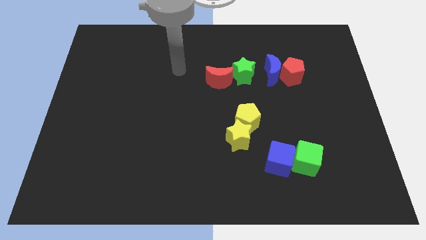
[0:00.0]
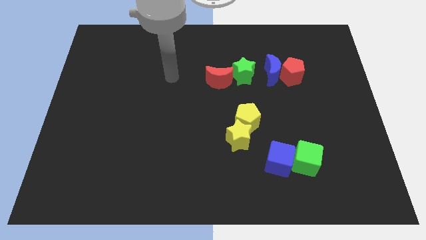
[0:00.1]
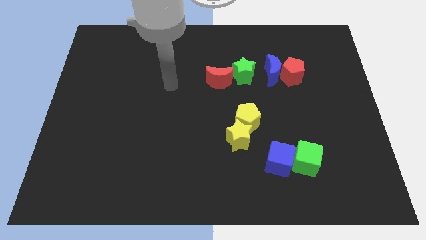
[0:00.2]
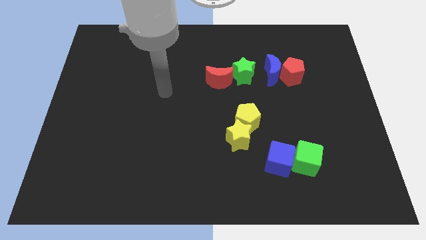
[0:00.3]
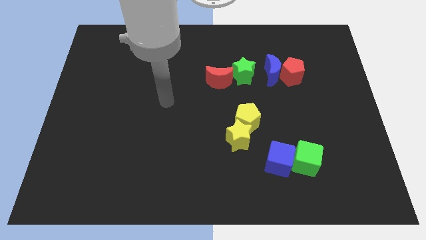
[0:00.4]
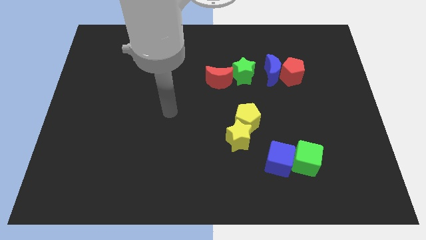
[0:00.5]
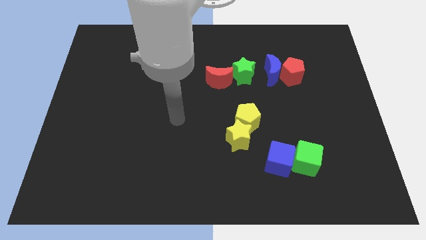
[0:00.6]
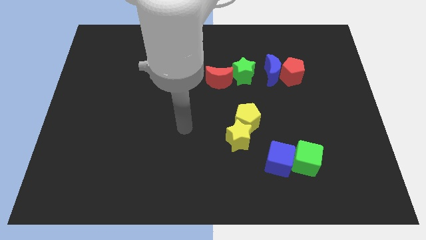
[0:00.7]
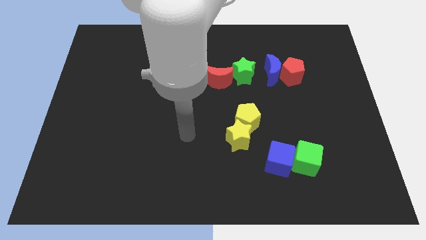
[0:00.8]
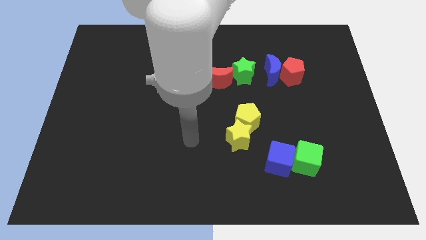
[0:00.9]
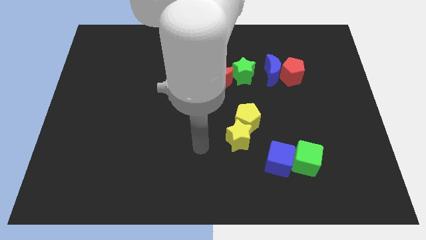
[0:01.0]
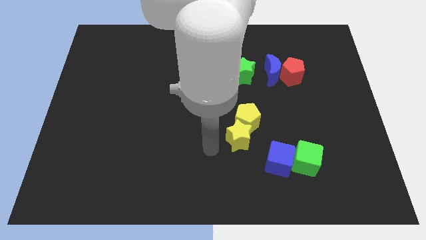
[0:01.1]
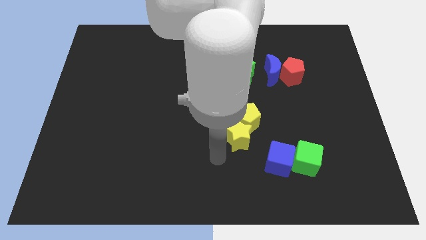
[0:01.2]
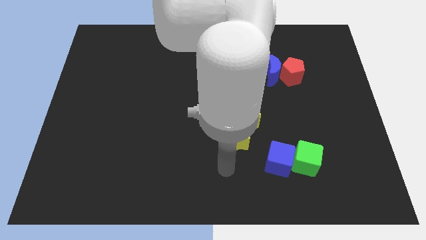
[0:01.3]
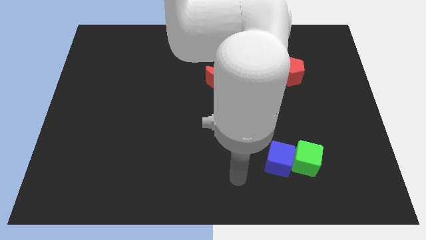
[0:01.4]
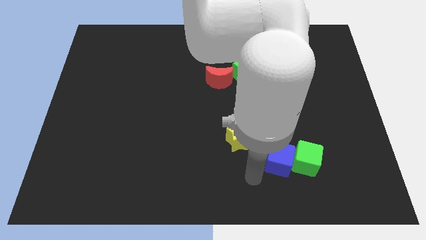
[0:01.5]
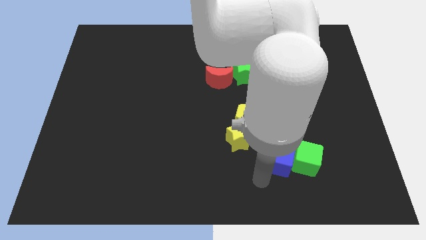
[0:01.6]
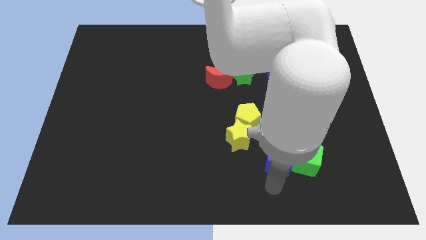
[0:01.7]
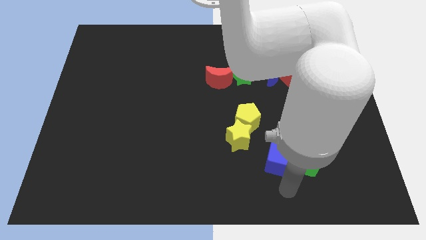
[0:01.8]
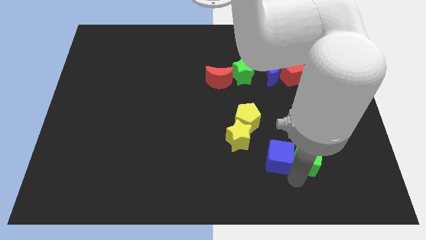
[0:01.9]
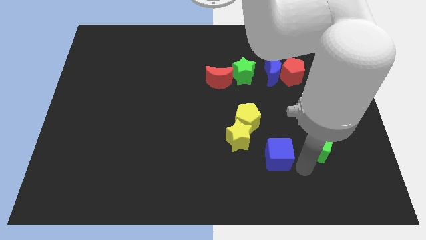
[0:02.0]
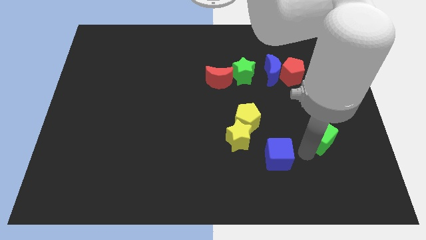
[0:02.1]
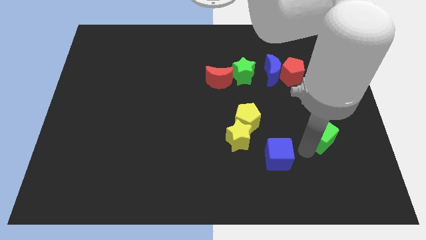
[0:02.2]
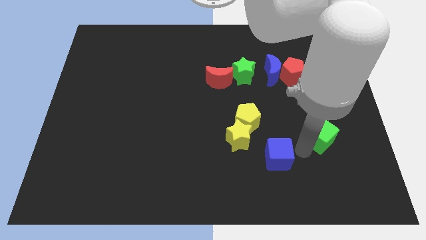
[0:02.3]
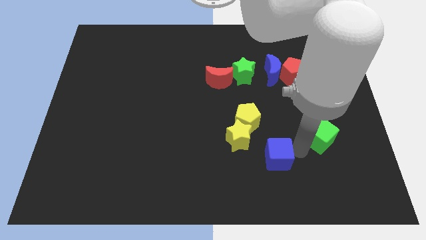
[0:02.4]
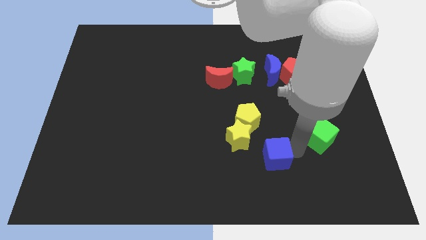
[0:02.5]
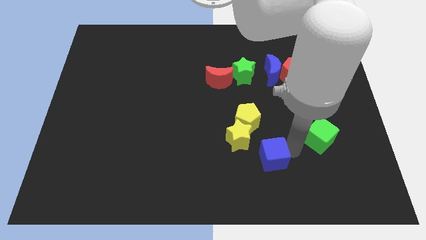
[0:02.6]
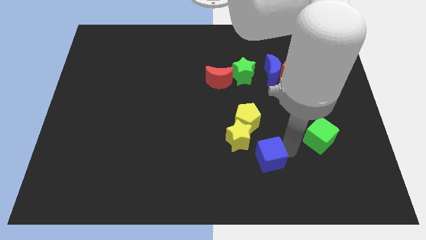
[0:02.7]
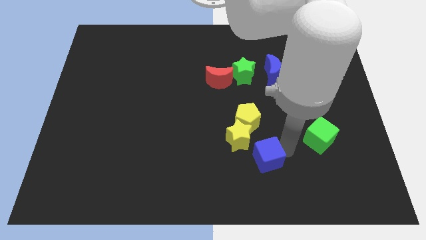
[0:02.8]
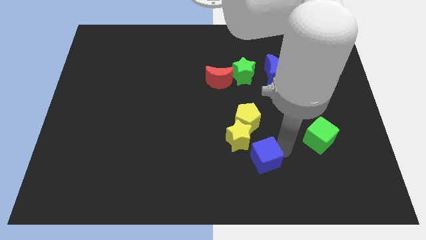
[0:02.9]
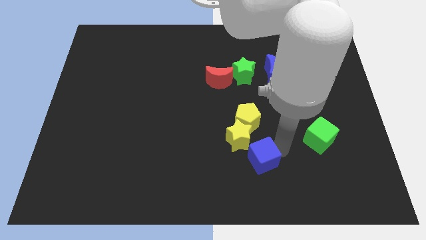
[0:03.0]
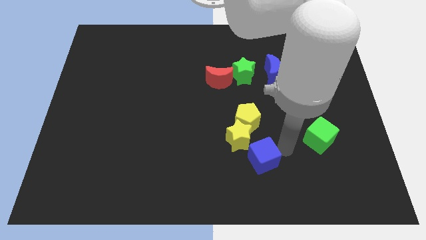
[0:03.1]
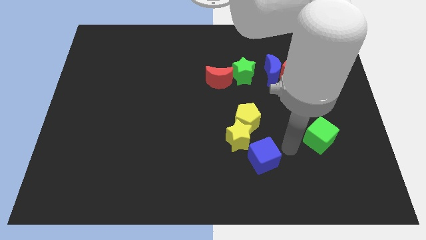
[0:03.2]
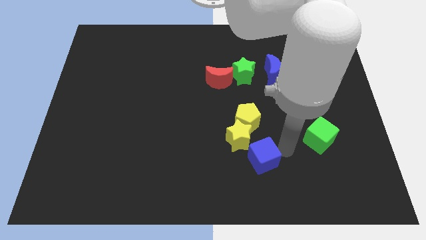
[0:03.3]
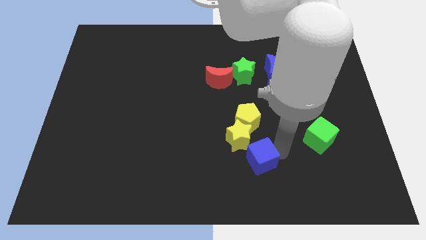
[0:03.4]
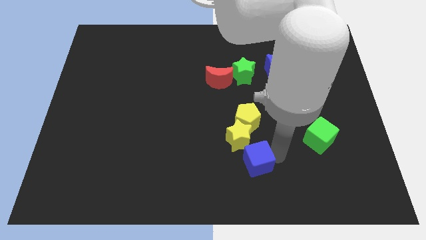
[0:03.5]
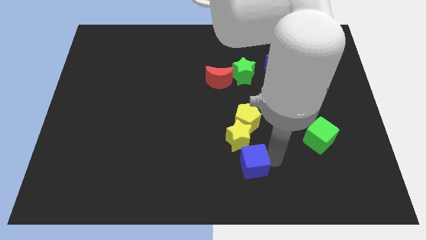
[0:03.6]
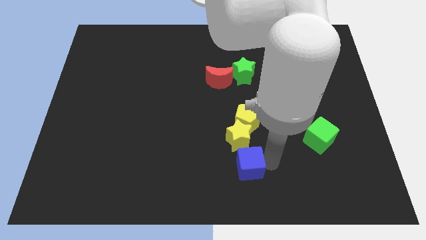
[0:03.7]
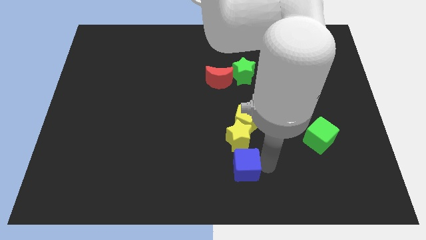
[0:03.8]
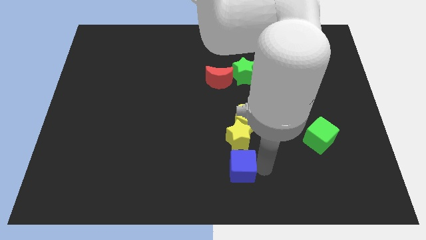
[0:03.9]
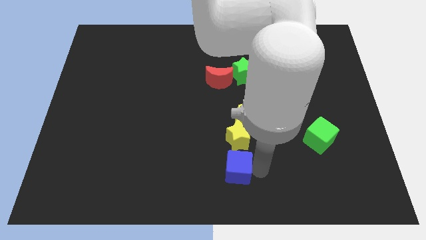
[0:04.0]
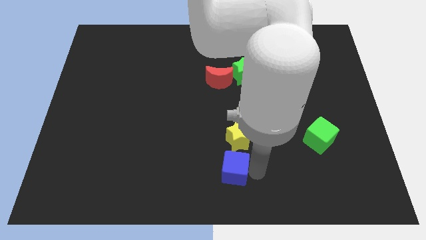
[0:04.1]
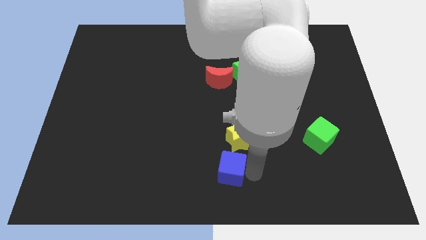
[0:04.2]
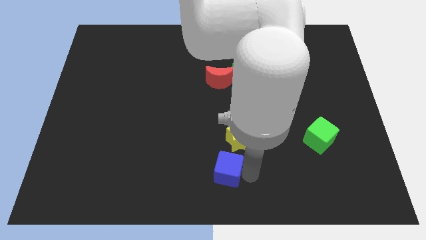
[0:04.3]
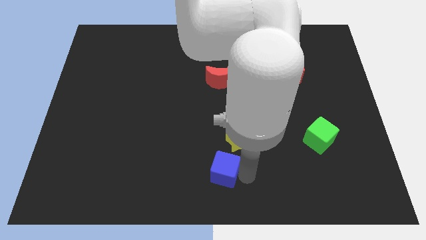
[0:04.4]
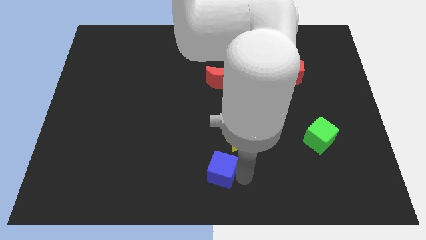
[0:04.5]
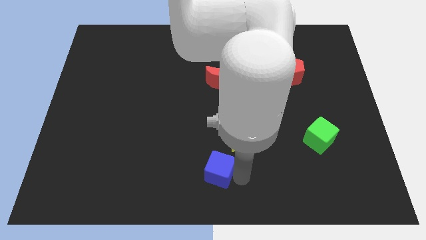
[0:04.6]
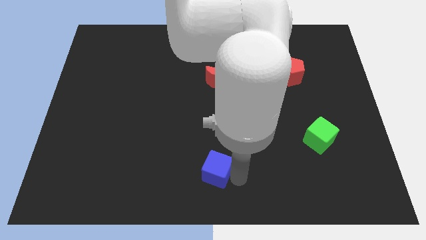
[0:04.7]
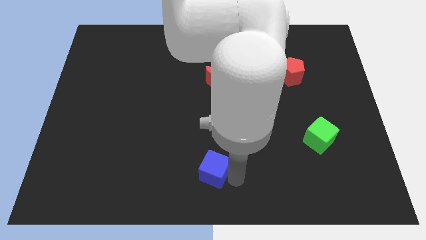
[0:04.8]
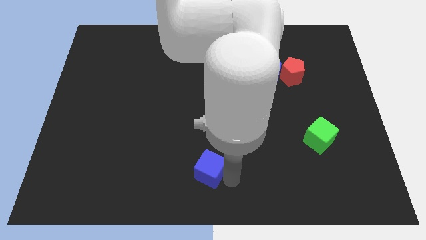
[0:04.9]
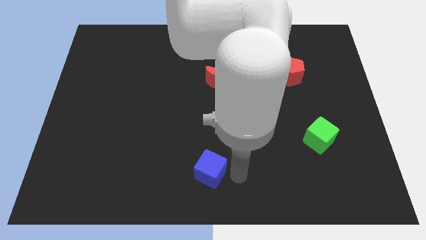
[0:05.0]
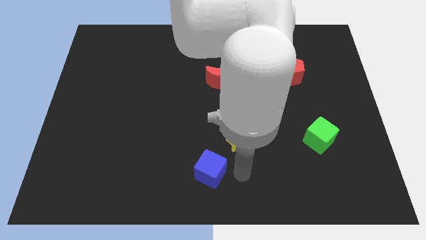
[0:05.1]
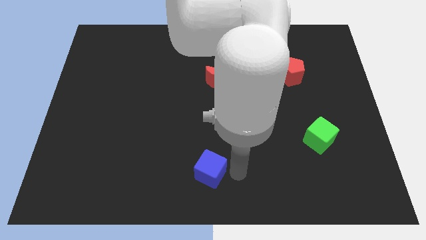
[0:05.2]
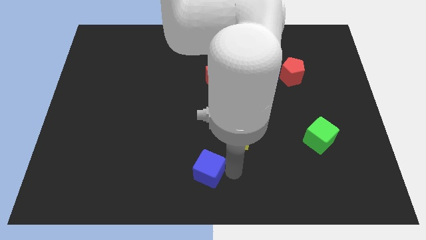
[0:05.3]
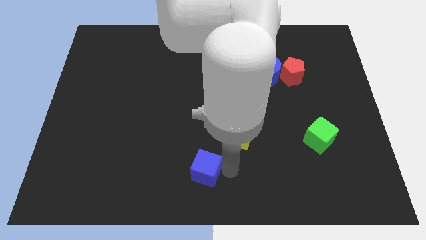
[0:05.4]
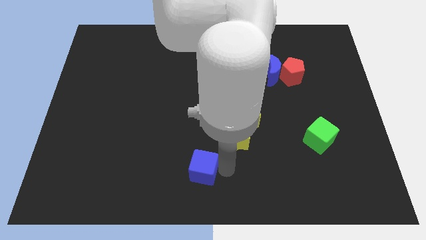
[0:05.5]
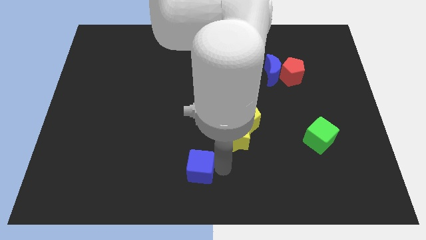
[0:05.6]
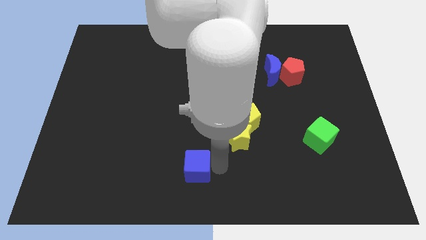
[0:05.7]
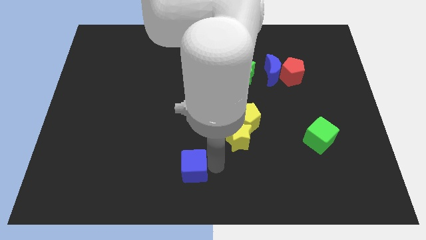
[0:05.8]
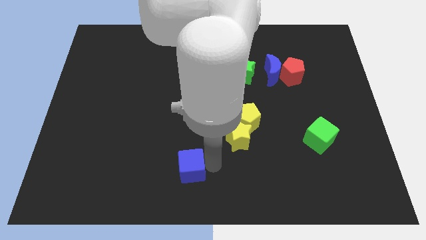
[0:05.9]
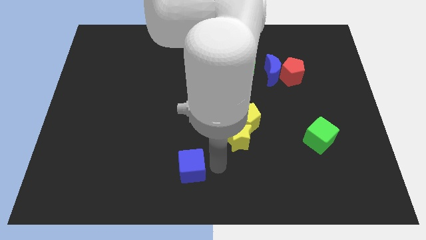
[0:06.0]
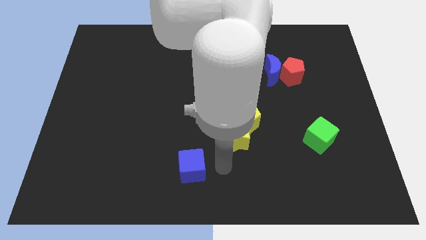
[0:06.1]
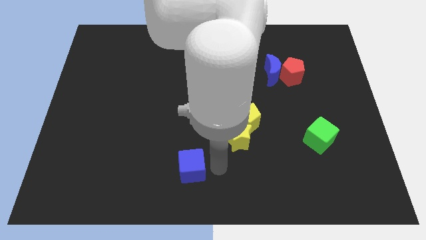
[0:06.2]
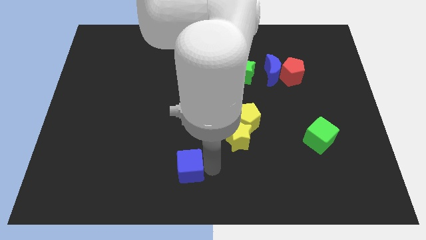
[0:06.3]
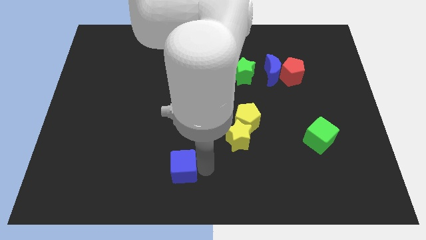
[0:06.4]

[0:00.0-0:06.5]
move the blue cube to the left

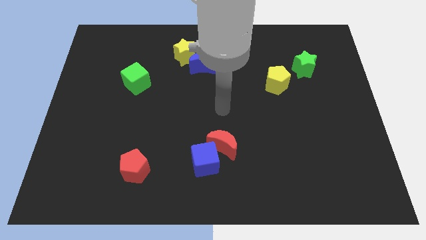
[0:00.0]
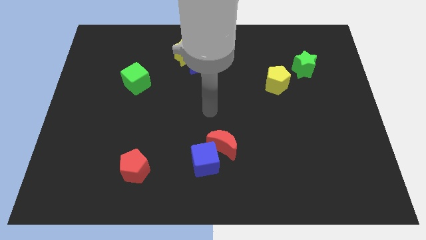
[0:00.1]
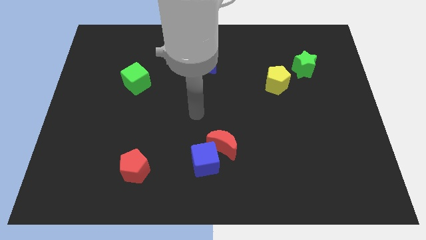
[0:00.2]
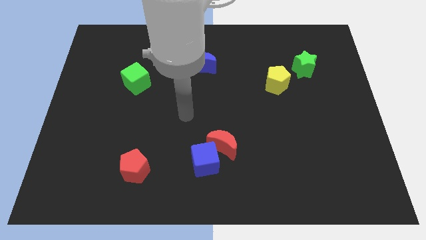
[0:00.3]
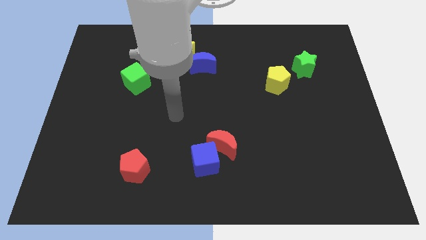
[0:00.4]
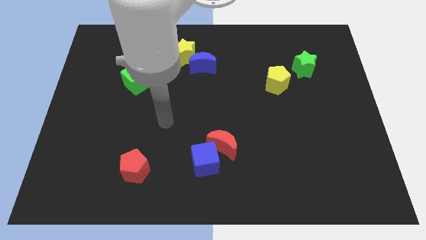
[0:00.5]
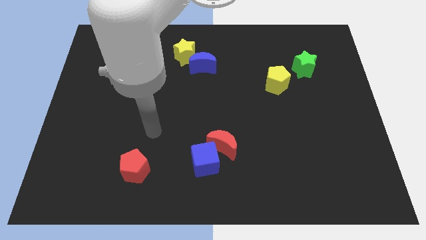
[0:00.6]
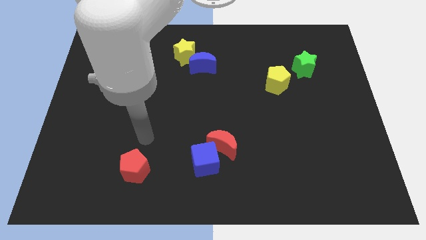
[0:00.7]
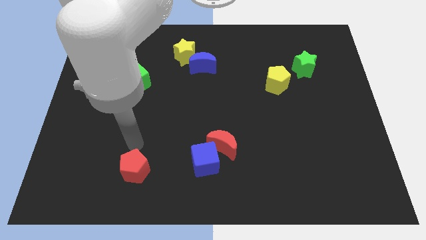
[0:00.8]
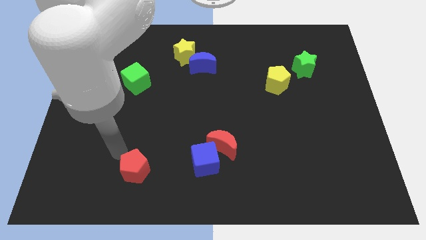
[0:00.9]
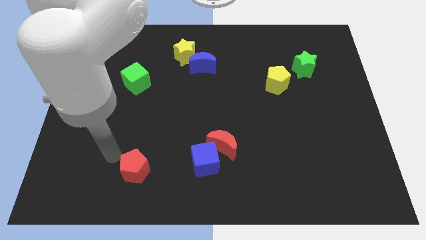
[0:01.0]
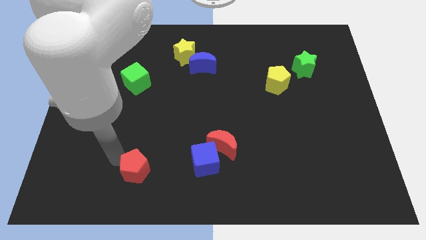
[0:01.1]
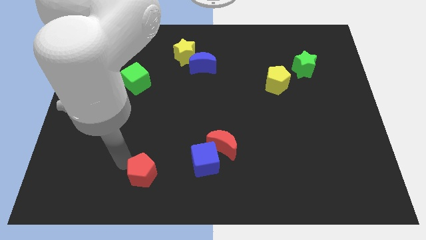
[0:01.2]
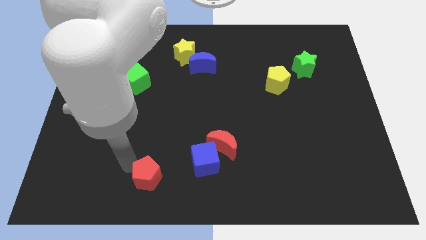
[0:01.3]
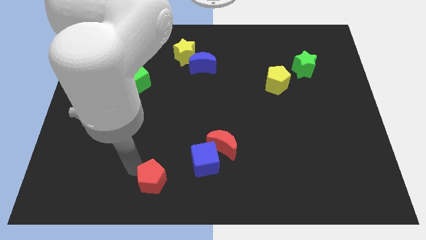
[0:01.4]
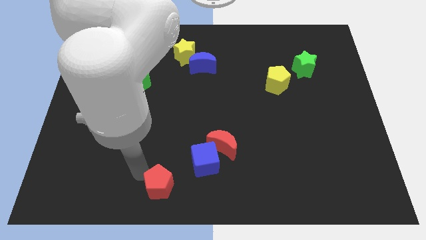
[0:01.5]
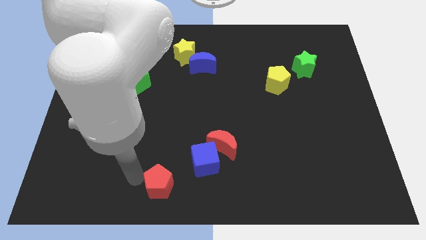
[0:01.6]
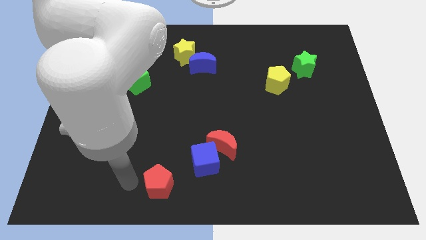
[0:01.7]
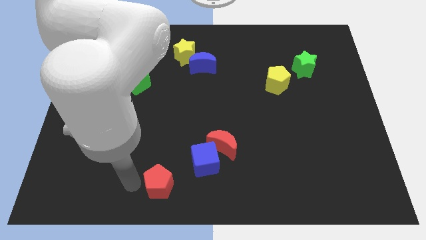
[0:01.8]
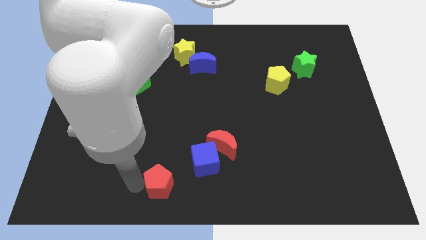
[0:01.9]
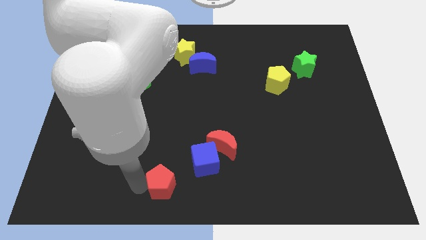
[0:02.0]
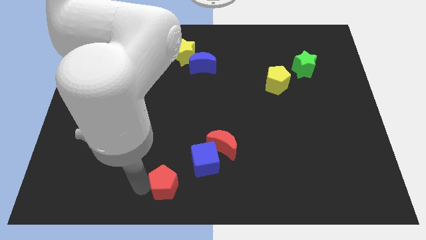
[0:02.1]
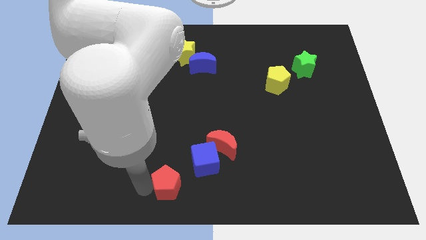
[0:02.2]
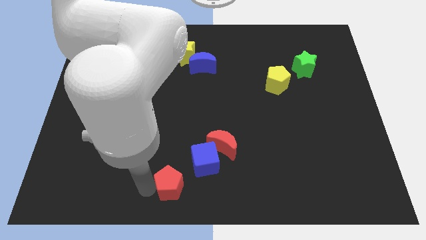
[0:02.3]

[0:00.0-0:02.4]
move the red pentagon right a little bit
